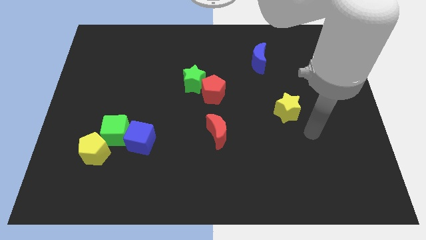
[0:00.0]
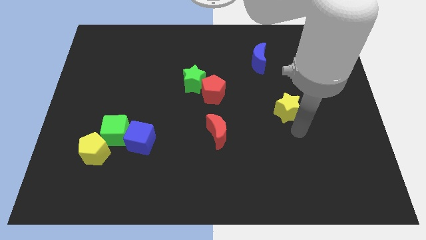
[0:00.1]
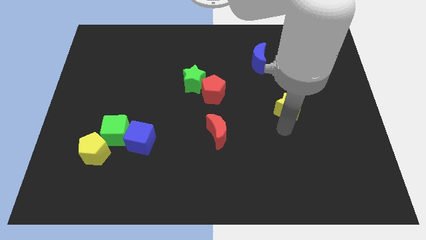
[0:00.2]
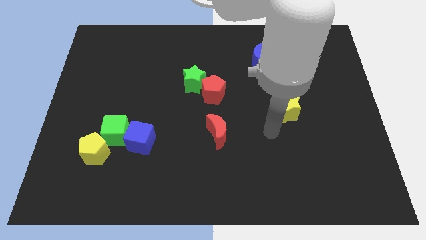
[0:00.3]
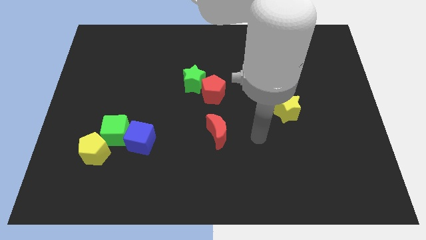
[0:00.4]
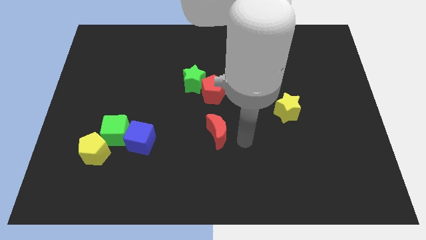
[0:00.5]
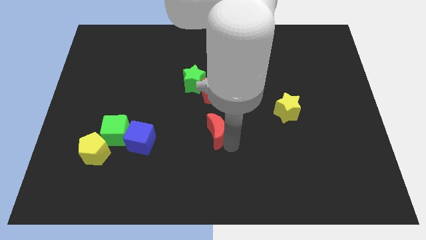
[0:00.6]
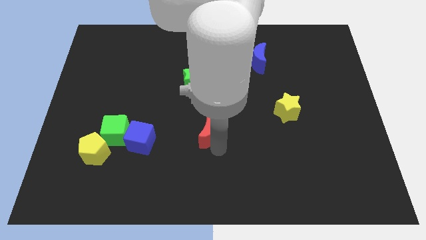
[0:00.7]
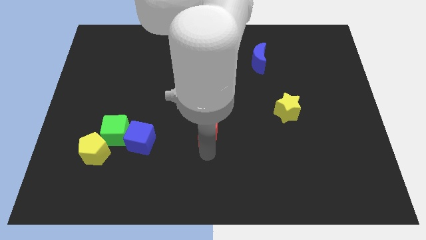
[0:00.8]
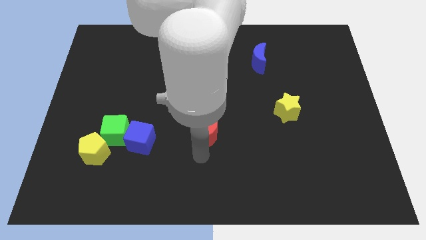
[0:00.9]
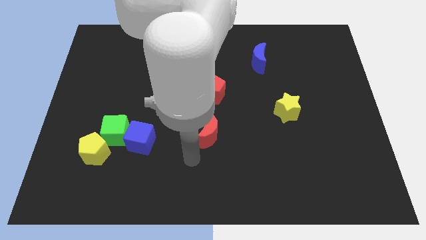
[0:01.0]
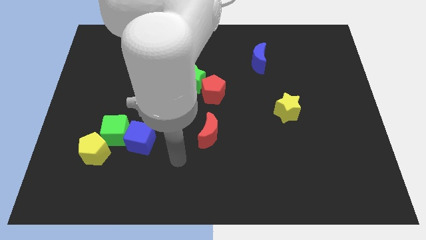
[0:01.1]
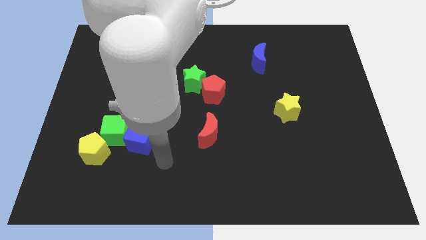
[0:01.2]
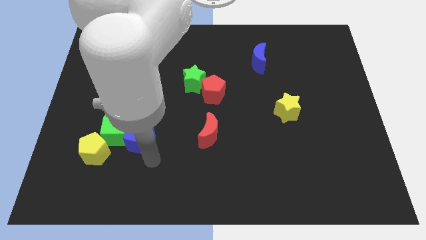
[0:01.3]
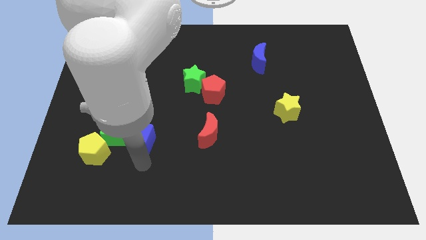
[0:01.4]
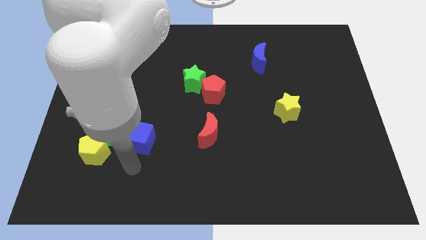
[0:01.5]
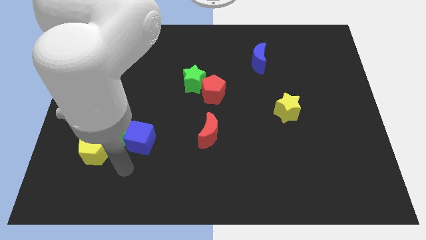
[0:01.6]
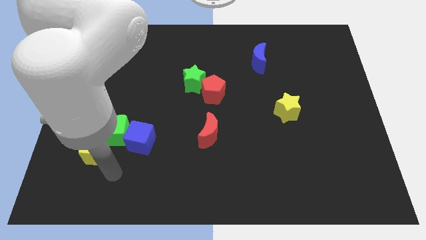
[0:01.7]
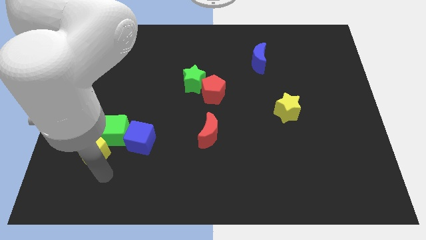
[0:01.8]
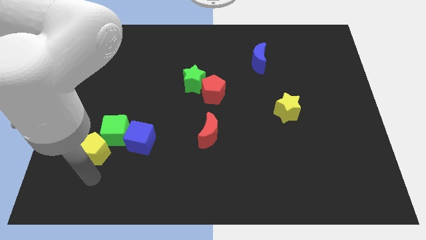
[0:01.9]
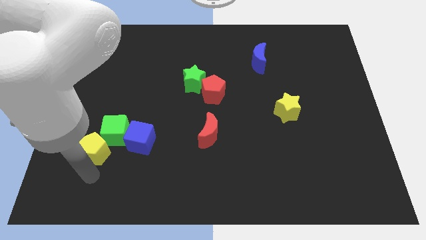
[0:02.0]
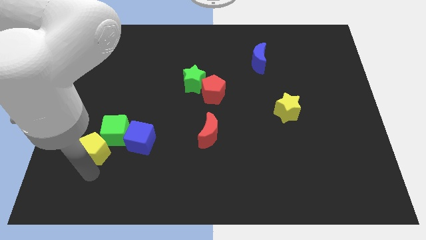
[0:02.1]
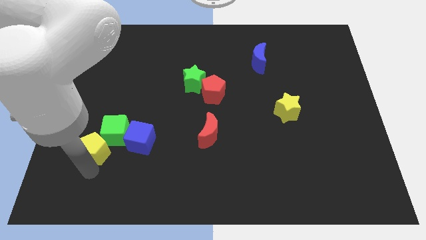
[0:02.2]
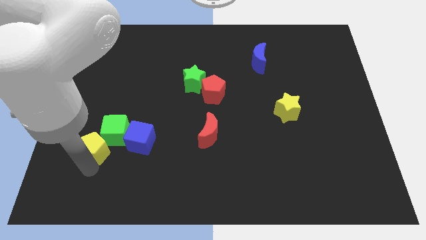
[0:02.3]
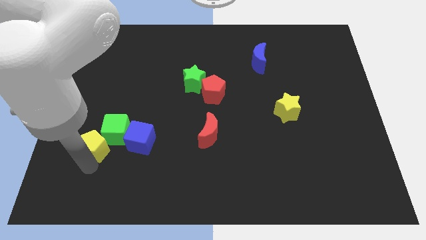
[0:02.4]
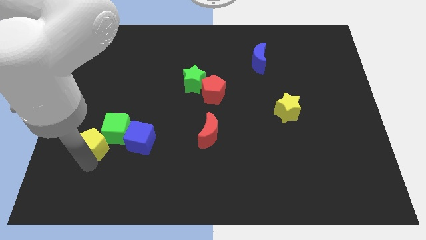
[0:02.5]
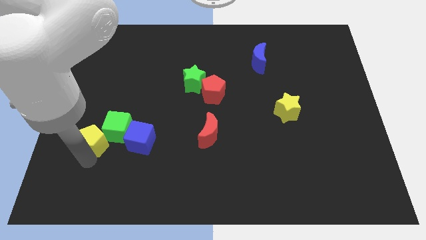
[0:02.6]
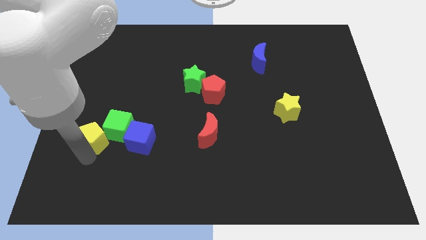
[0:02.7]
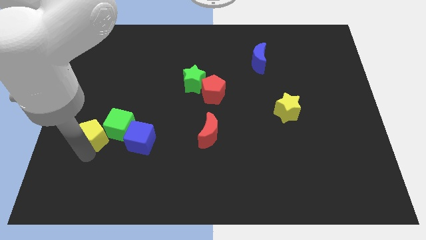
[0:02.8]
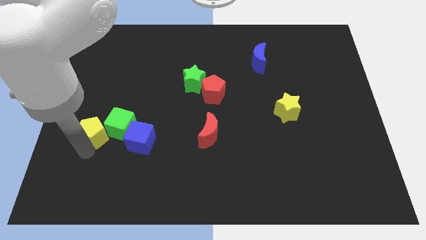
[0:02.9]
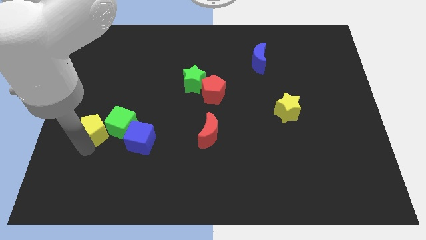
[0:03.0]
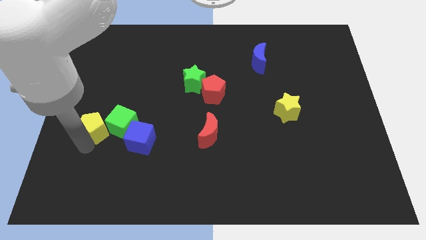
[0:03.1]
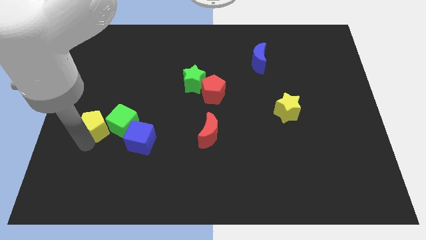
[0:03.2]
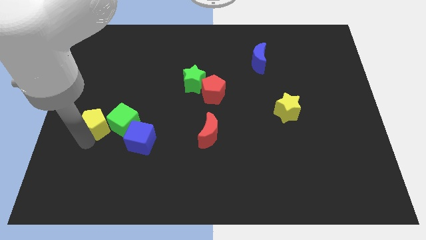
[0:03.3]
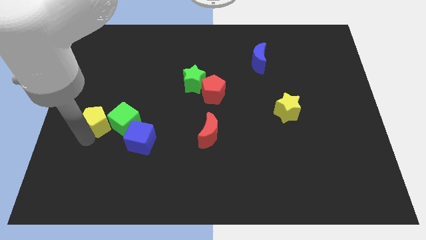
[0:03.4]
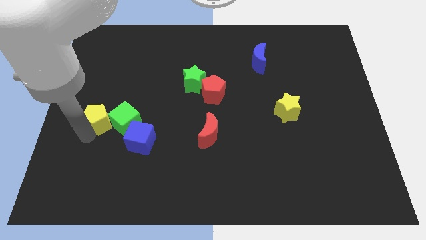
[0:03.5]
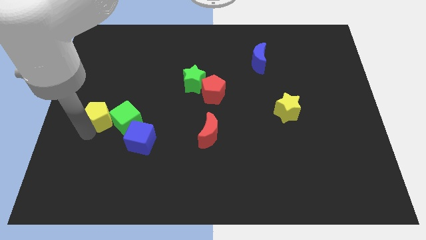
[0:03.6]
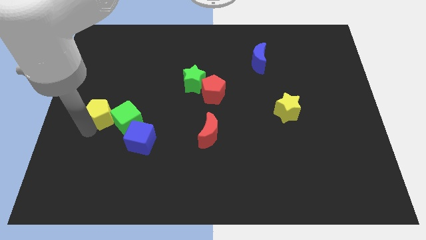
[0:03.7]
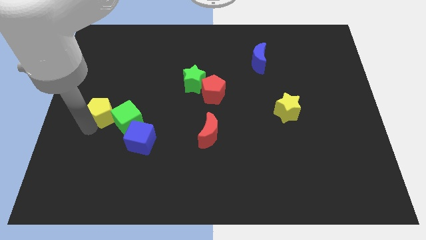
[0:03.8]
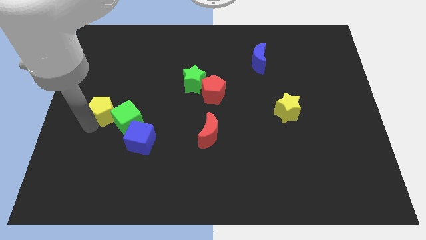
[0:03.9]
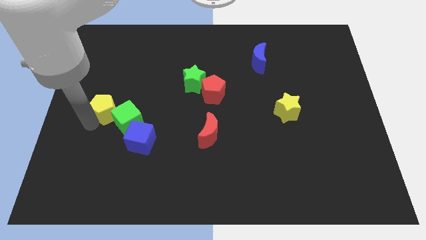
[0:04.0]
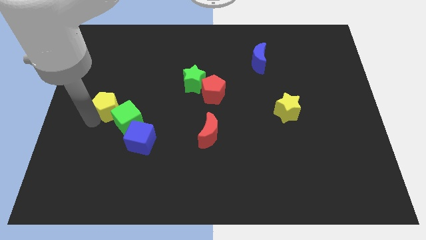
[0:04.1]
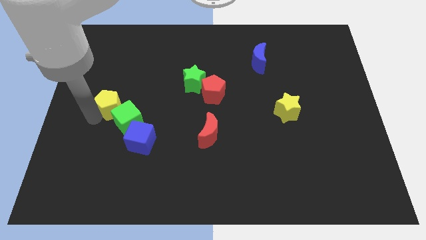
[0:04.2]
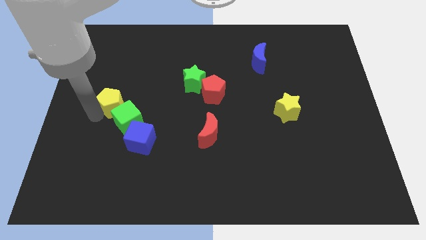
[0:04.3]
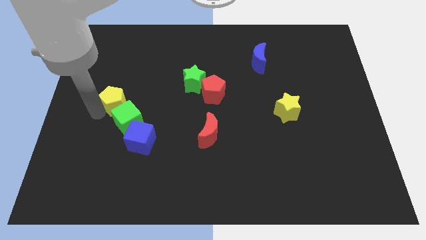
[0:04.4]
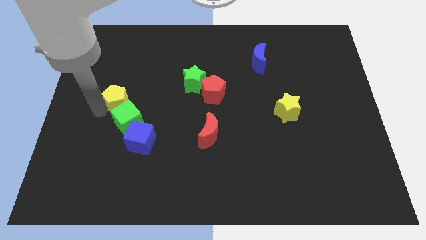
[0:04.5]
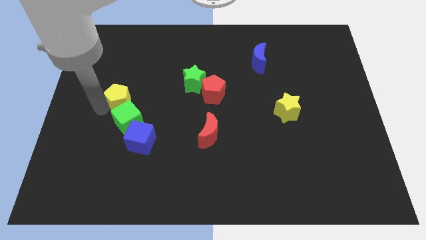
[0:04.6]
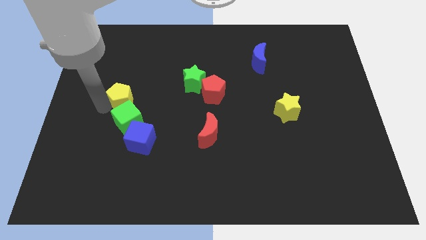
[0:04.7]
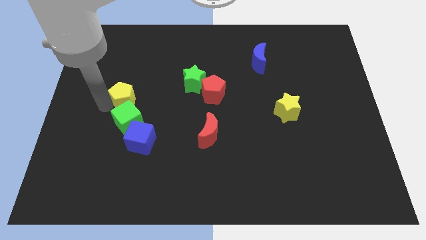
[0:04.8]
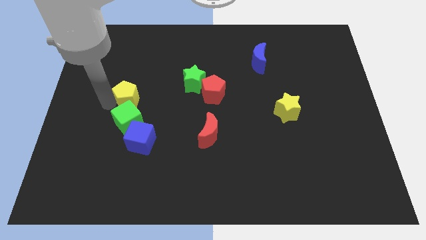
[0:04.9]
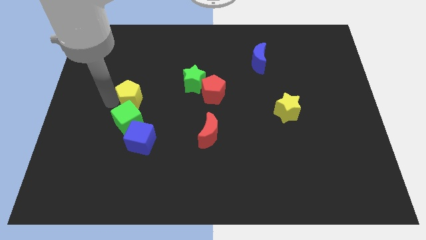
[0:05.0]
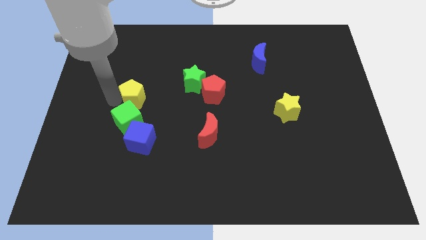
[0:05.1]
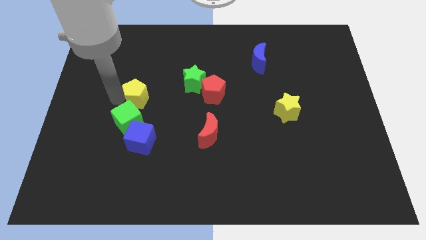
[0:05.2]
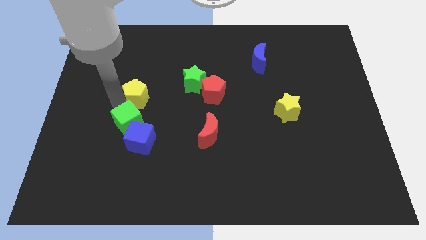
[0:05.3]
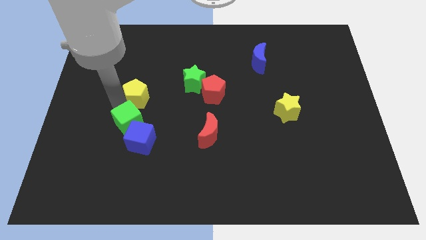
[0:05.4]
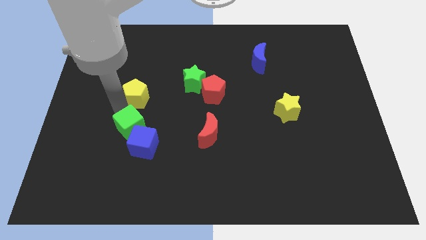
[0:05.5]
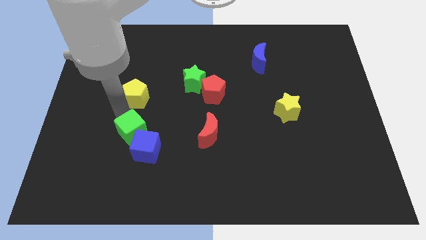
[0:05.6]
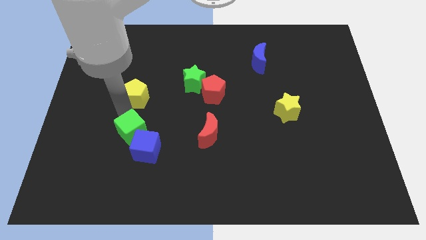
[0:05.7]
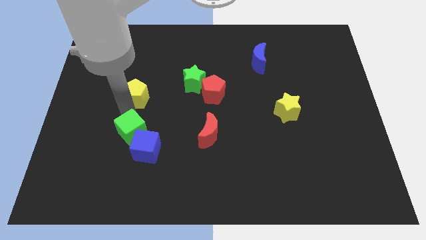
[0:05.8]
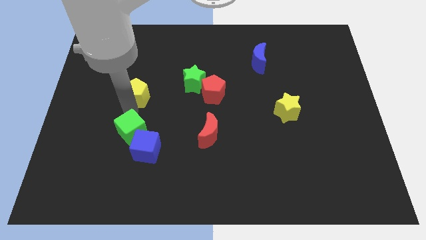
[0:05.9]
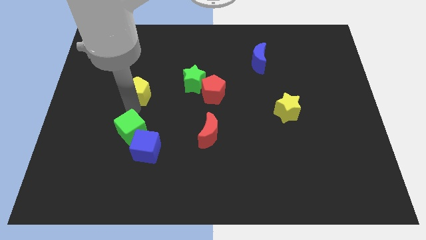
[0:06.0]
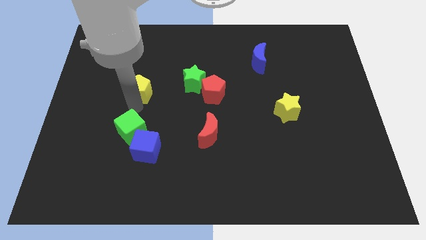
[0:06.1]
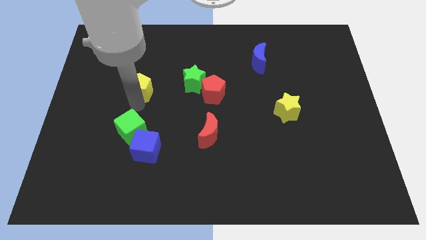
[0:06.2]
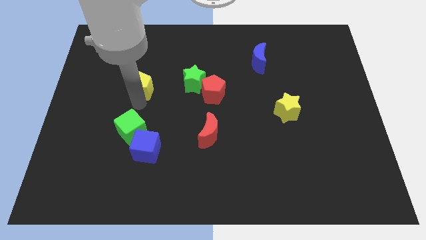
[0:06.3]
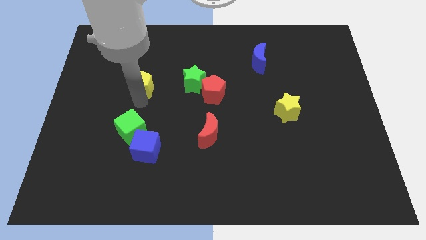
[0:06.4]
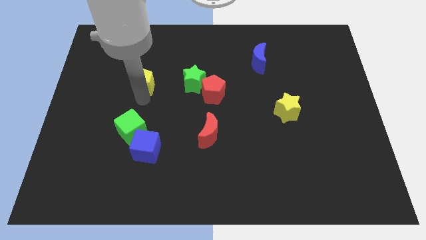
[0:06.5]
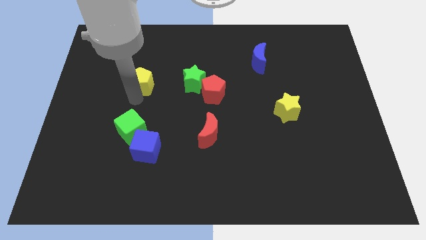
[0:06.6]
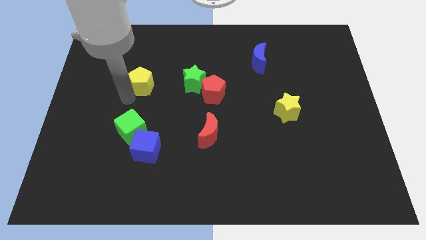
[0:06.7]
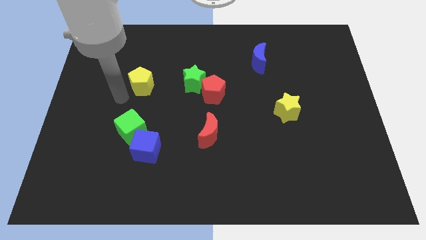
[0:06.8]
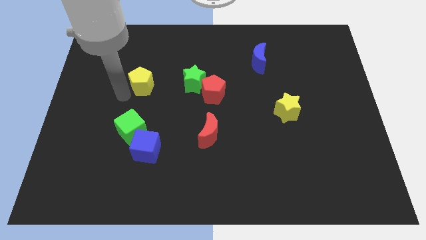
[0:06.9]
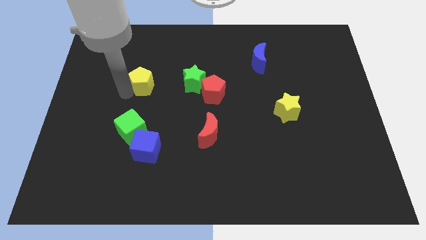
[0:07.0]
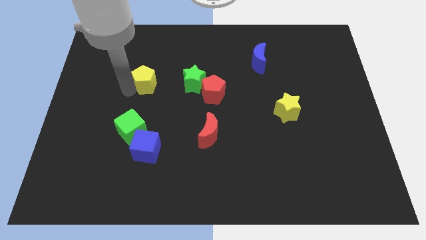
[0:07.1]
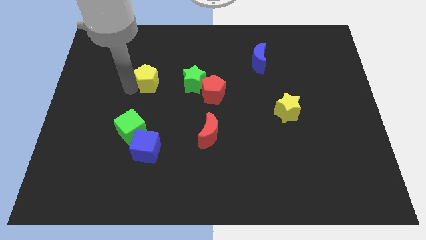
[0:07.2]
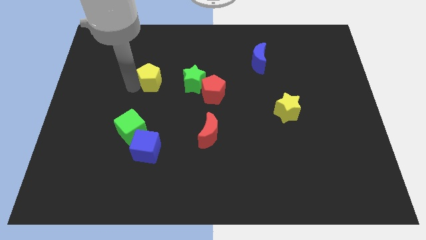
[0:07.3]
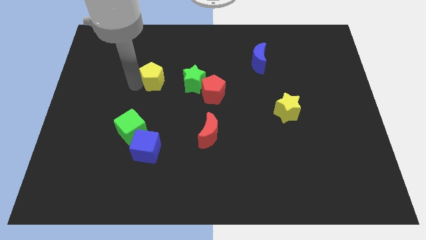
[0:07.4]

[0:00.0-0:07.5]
slide the yellow pentagon upwards and to the right

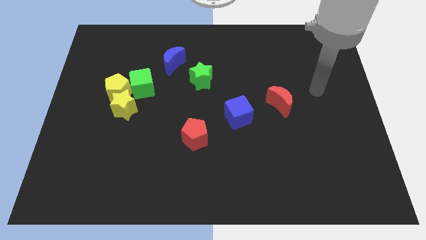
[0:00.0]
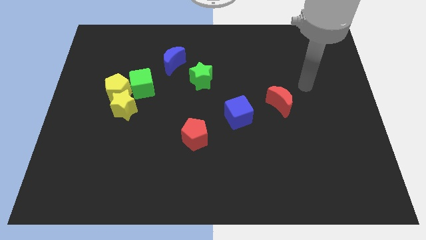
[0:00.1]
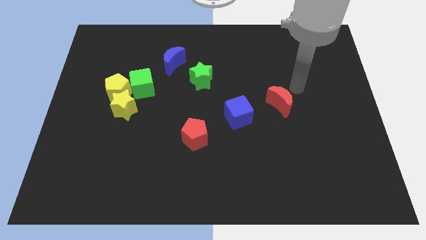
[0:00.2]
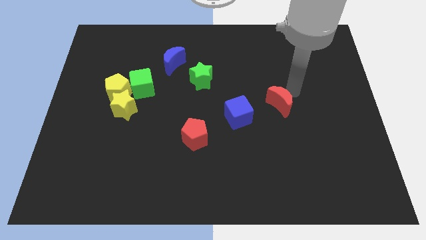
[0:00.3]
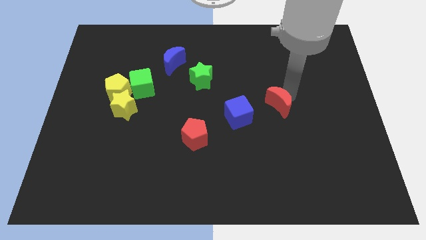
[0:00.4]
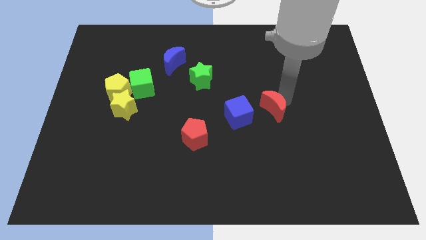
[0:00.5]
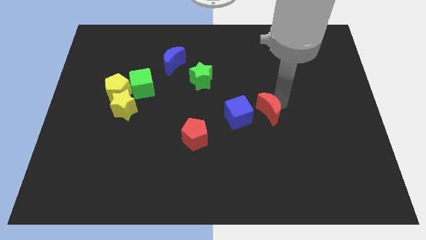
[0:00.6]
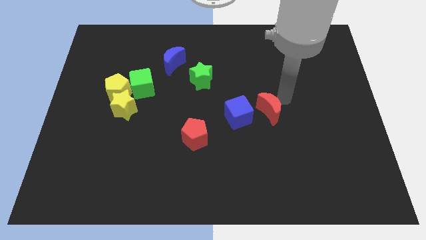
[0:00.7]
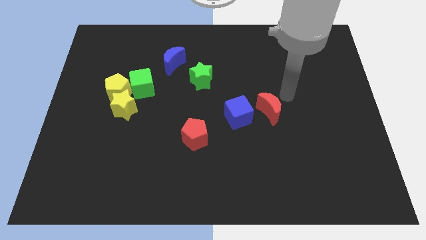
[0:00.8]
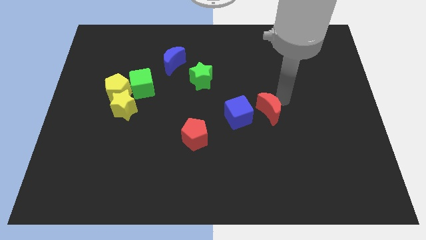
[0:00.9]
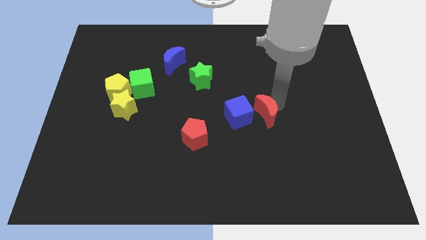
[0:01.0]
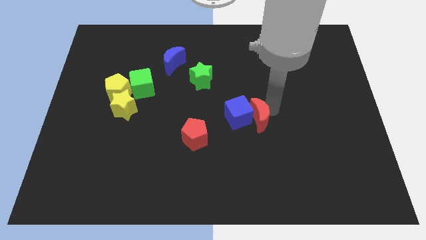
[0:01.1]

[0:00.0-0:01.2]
slide the red moon somewhat downwards and then left

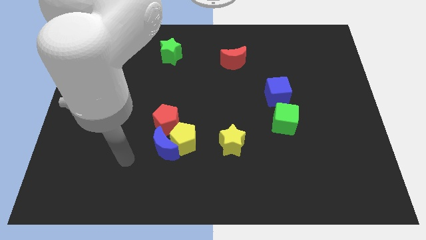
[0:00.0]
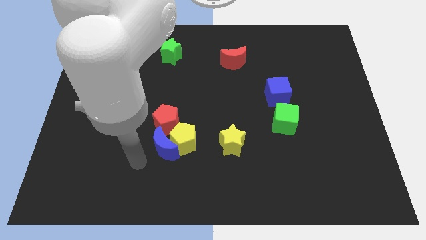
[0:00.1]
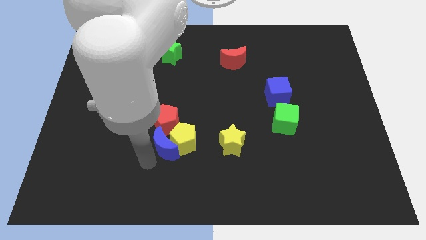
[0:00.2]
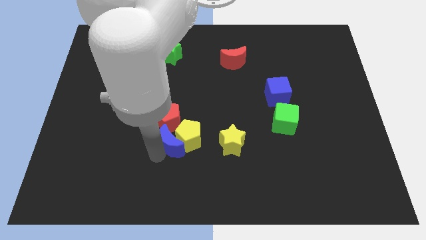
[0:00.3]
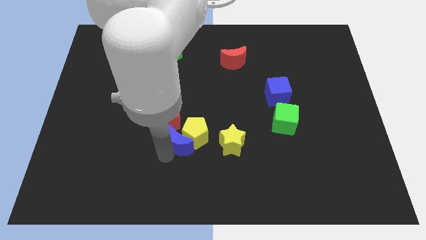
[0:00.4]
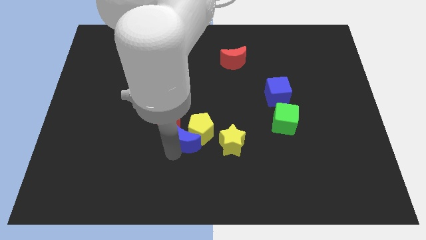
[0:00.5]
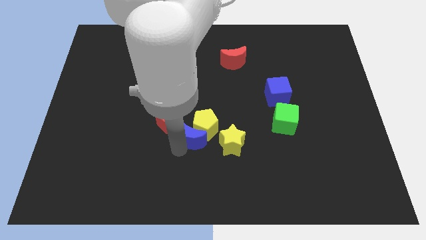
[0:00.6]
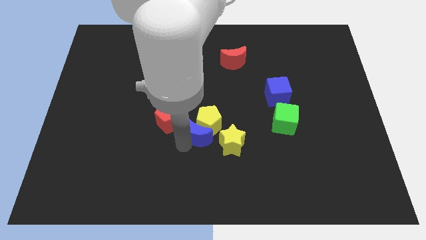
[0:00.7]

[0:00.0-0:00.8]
slide the yellow pentagon upwards and right a little
